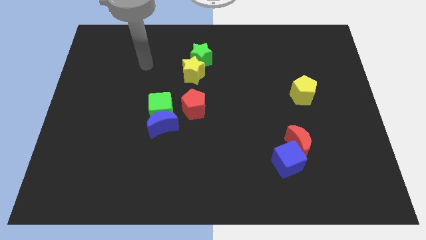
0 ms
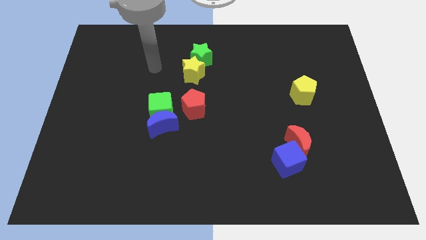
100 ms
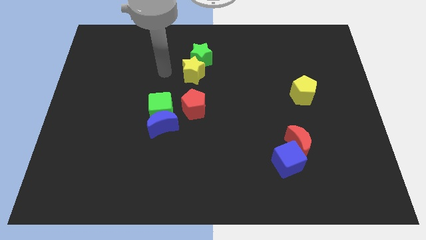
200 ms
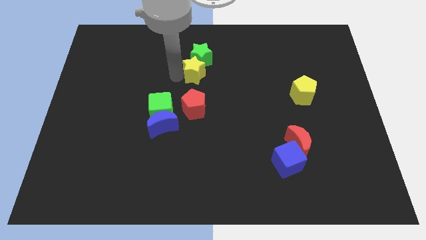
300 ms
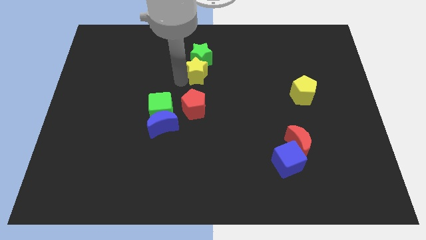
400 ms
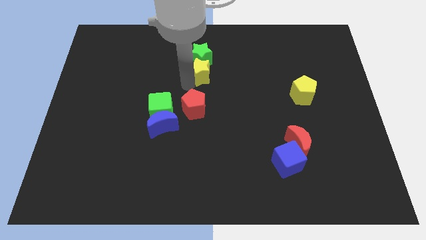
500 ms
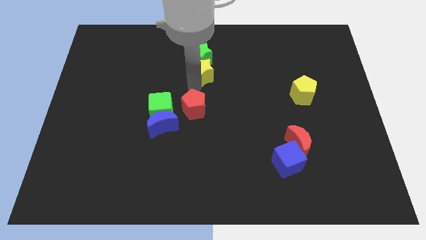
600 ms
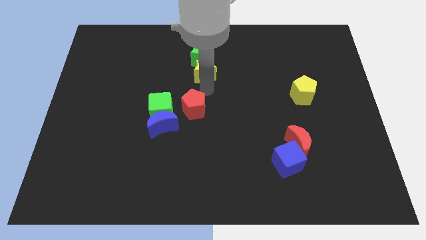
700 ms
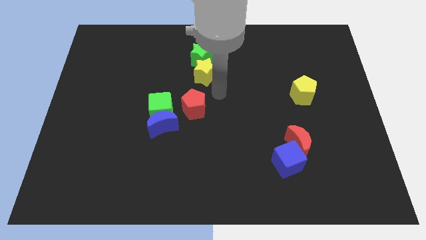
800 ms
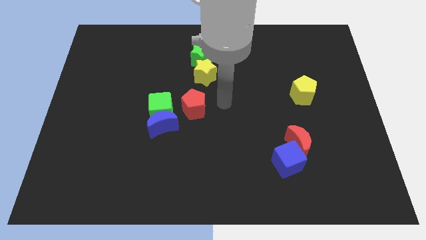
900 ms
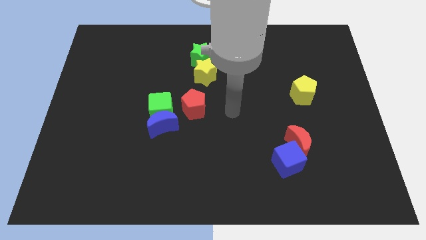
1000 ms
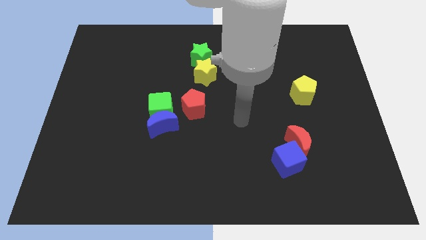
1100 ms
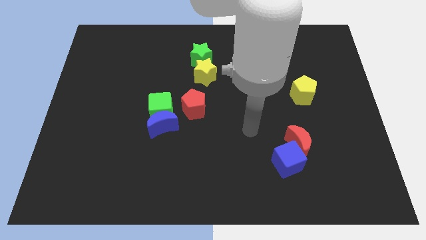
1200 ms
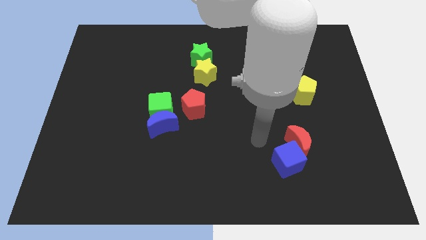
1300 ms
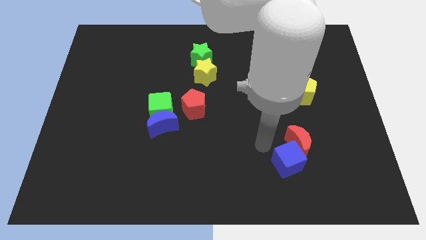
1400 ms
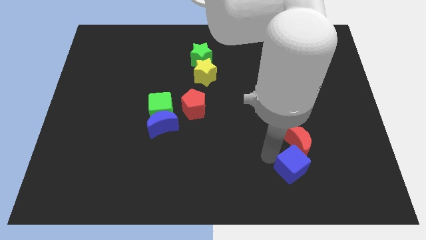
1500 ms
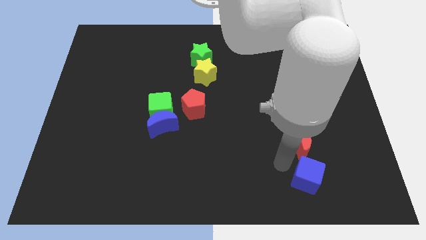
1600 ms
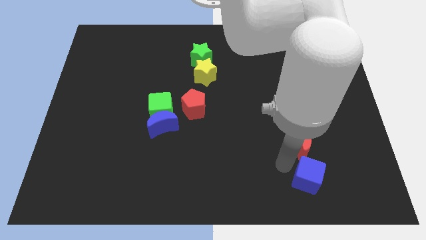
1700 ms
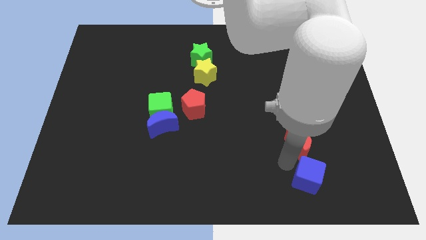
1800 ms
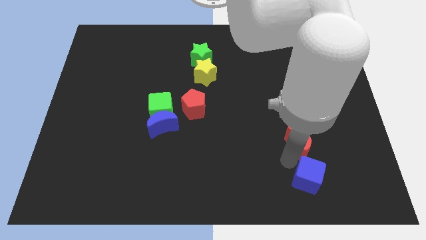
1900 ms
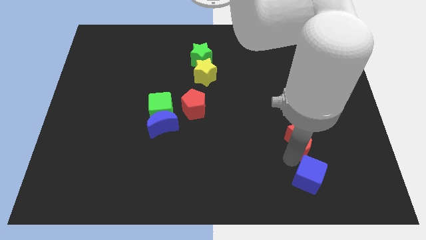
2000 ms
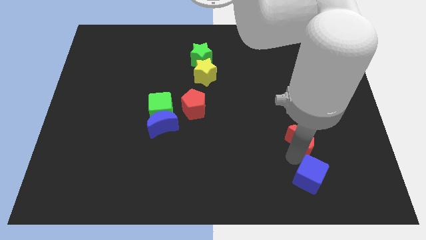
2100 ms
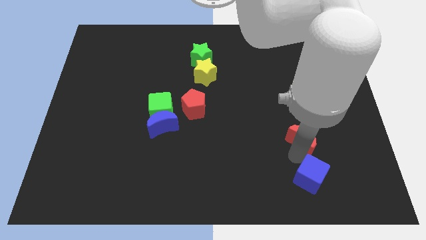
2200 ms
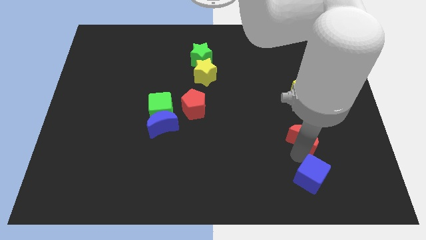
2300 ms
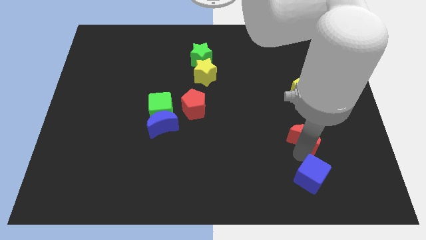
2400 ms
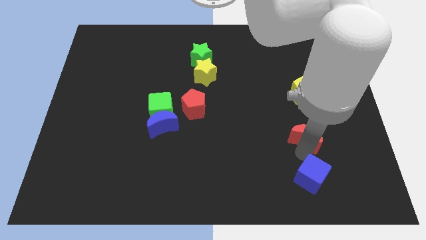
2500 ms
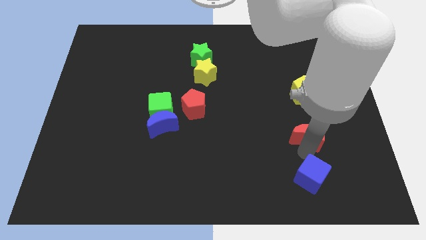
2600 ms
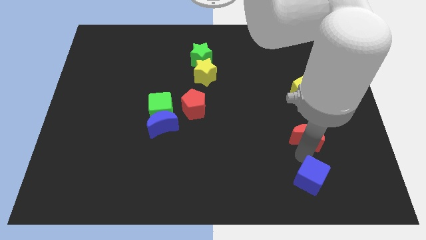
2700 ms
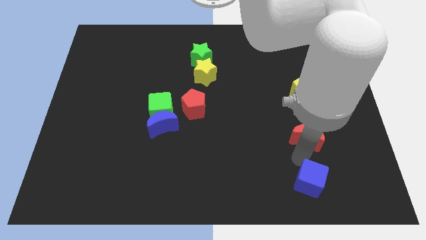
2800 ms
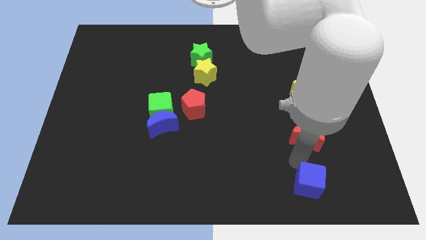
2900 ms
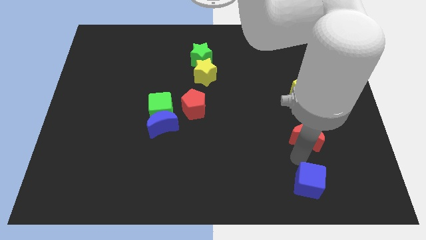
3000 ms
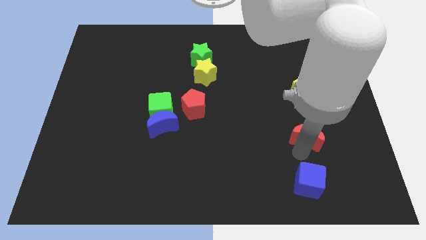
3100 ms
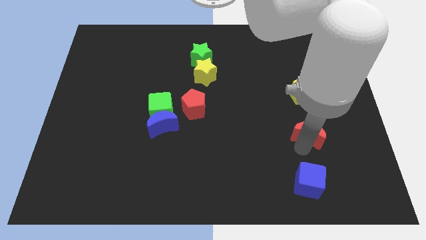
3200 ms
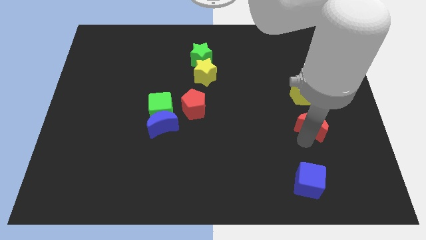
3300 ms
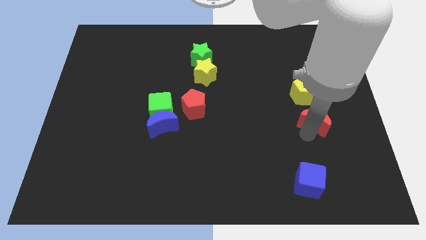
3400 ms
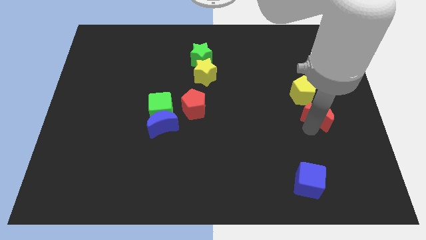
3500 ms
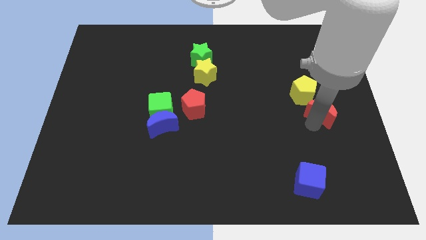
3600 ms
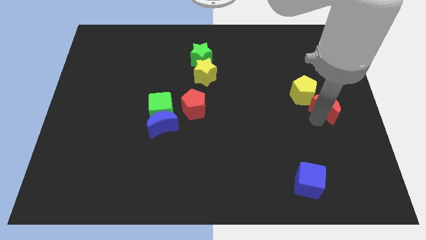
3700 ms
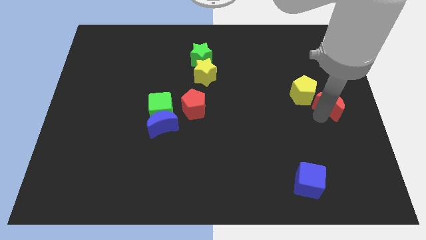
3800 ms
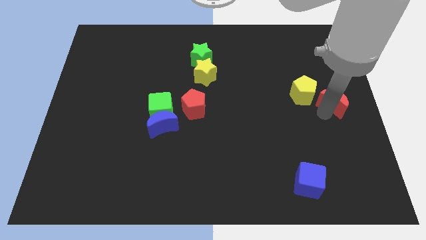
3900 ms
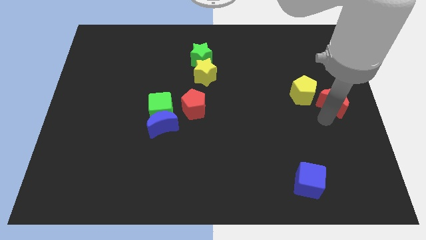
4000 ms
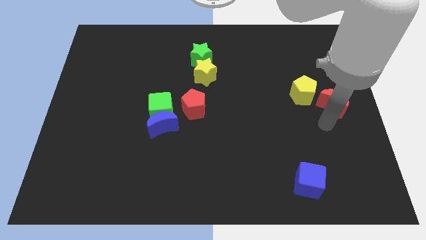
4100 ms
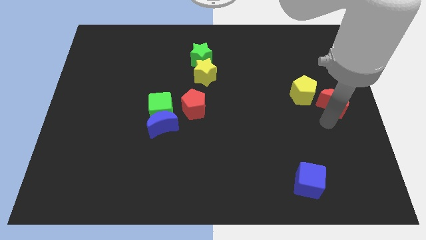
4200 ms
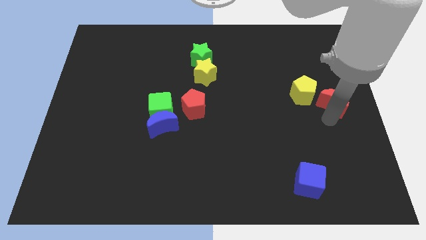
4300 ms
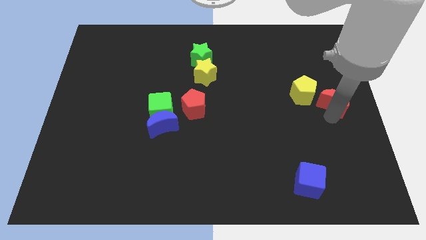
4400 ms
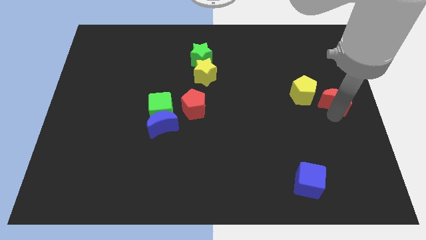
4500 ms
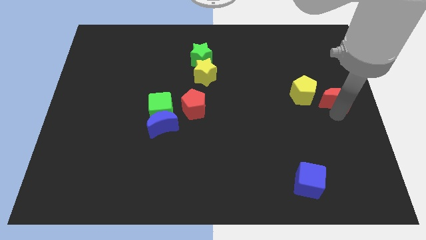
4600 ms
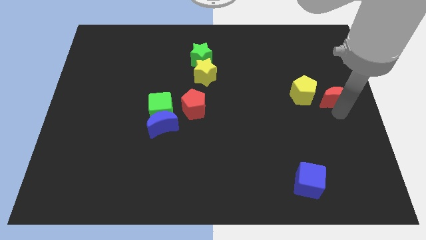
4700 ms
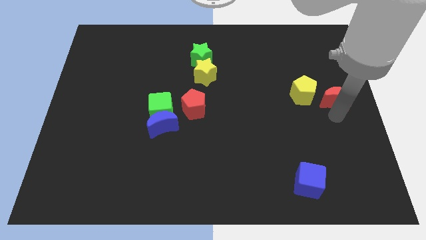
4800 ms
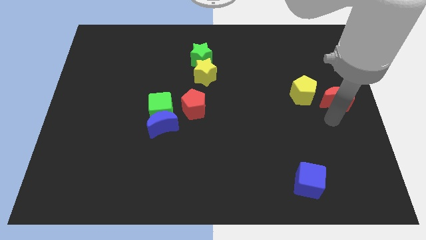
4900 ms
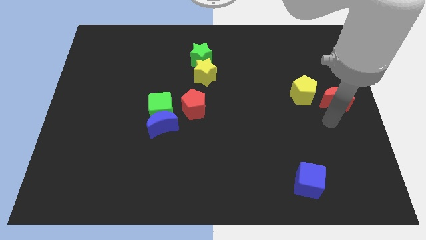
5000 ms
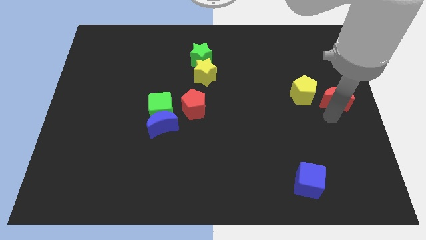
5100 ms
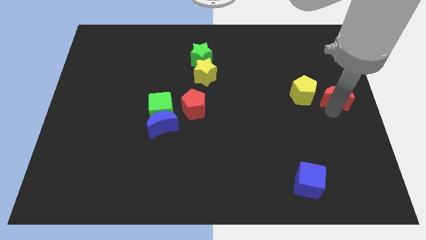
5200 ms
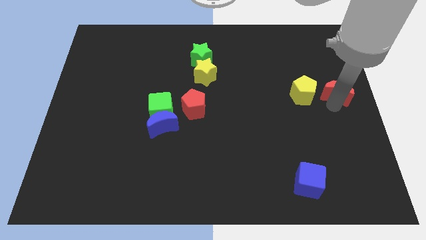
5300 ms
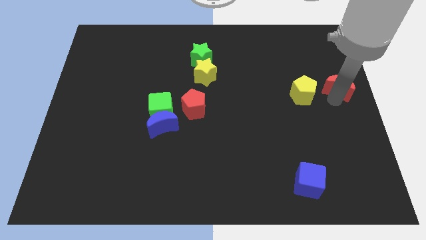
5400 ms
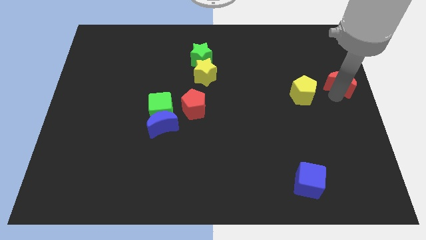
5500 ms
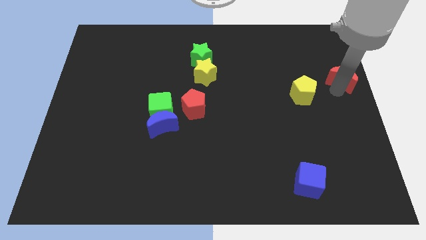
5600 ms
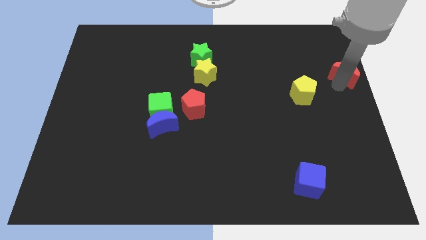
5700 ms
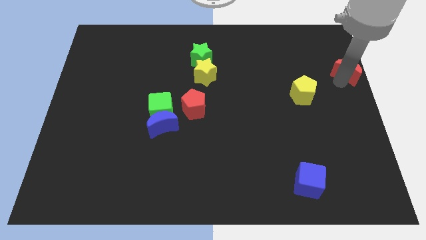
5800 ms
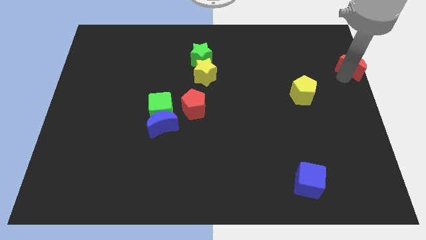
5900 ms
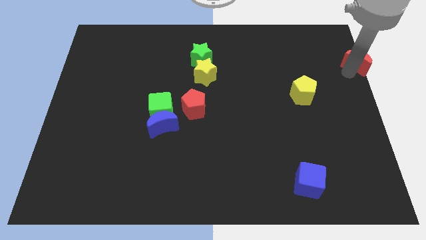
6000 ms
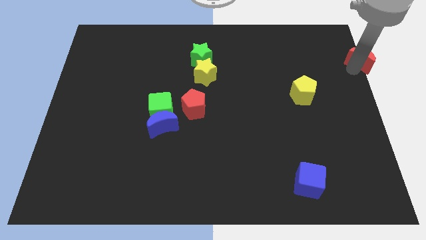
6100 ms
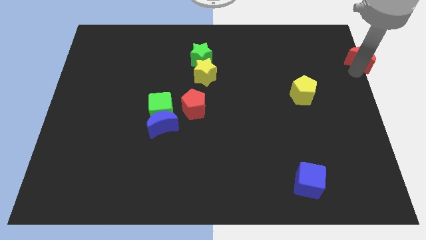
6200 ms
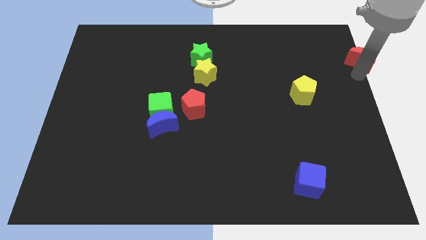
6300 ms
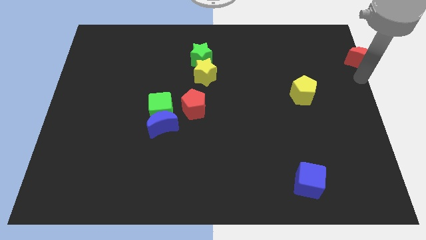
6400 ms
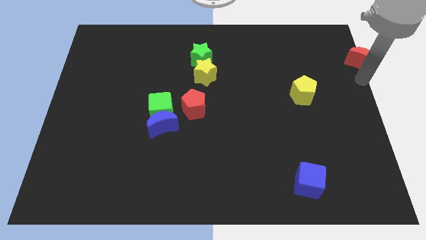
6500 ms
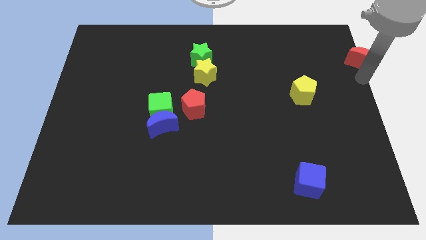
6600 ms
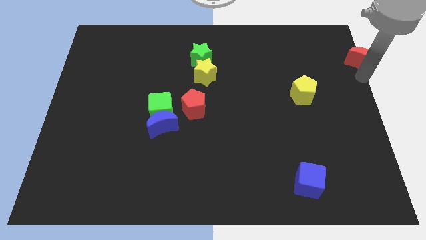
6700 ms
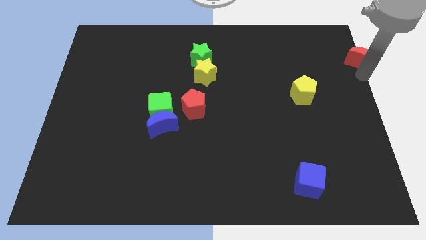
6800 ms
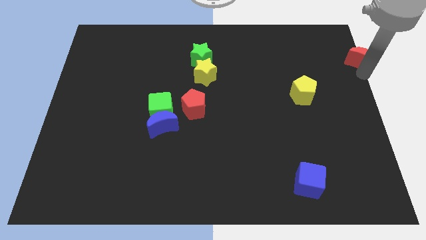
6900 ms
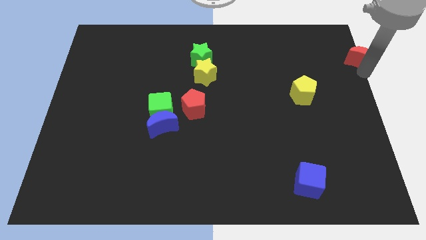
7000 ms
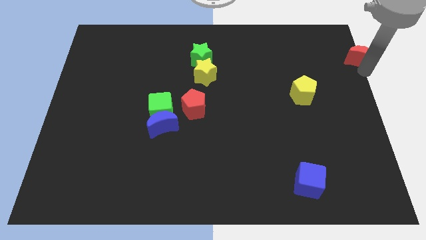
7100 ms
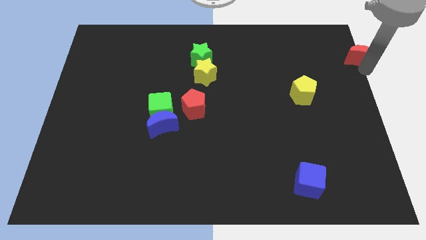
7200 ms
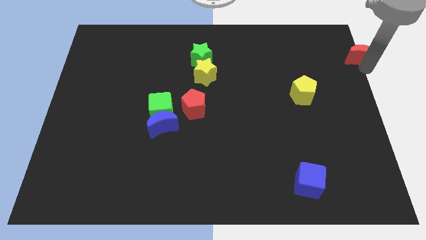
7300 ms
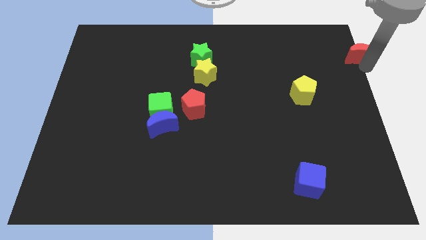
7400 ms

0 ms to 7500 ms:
move the red moon to the top right corner
